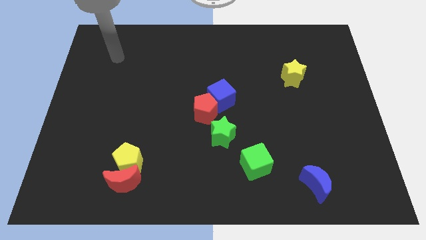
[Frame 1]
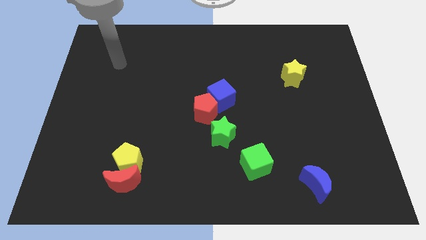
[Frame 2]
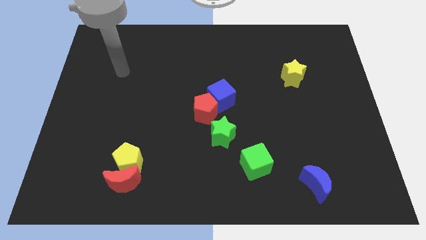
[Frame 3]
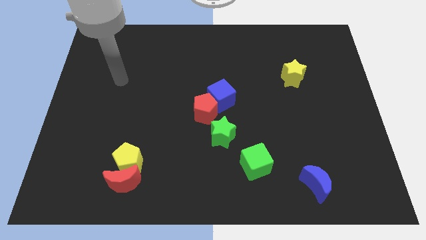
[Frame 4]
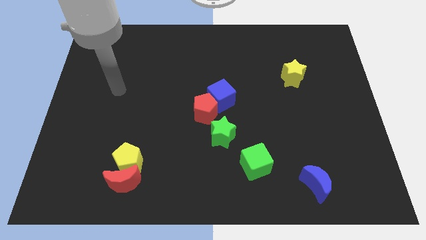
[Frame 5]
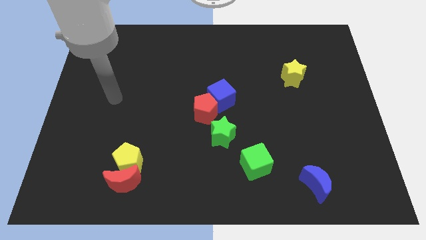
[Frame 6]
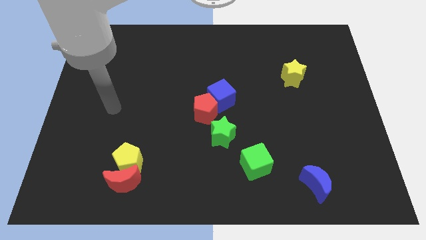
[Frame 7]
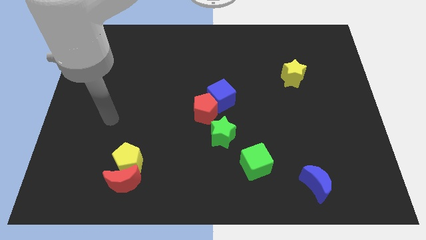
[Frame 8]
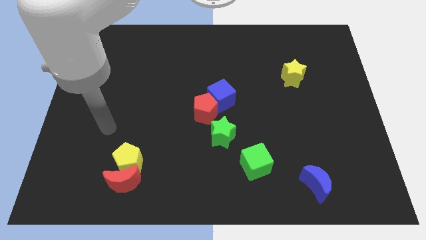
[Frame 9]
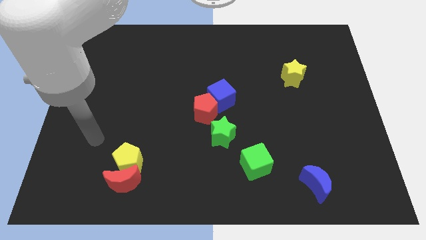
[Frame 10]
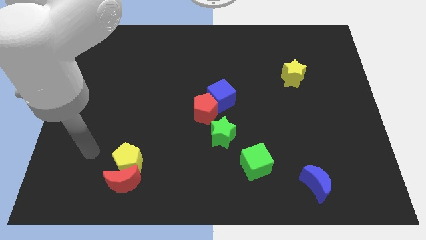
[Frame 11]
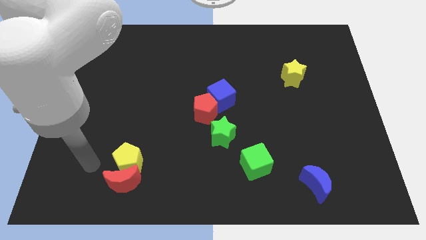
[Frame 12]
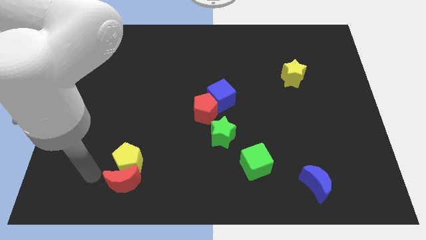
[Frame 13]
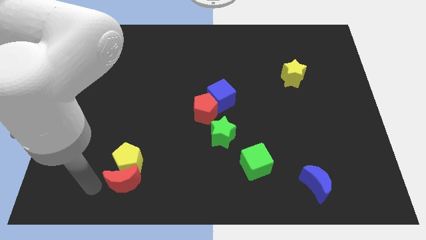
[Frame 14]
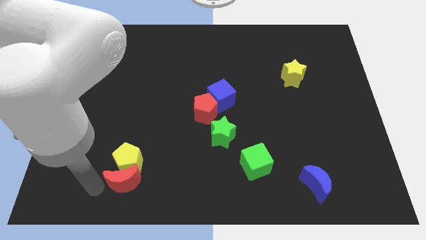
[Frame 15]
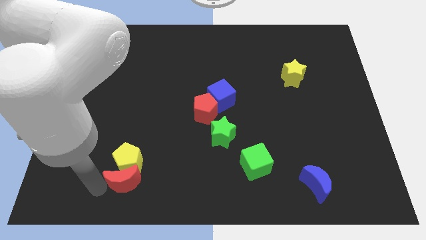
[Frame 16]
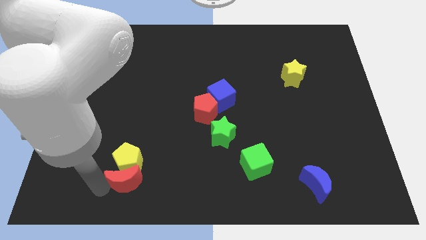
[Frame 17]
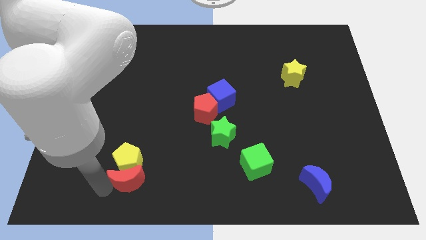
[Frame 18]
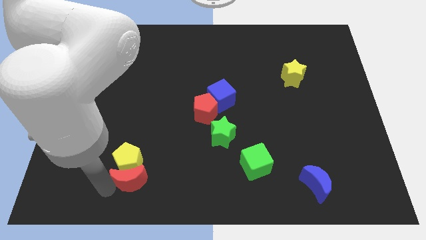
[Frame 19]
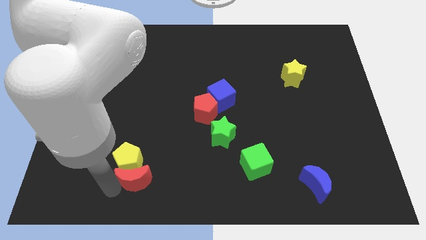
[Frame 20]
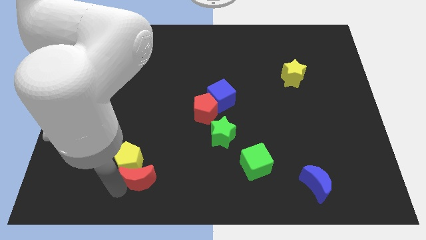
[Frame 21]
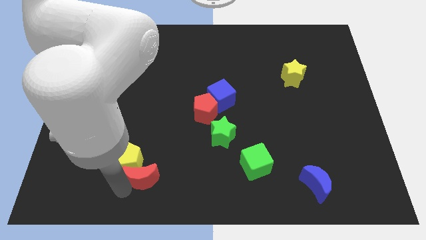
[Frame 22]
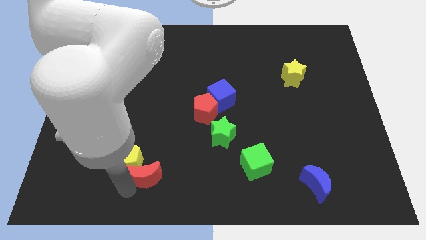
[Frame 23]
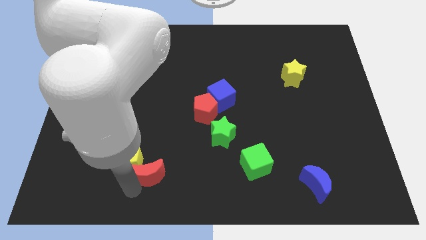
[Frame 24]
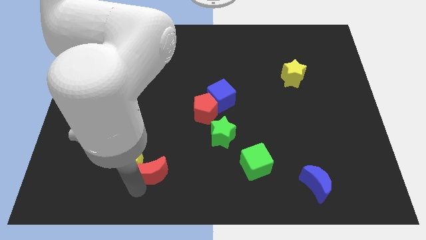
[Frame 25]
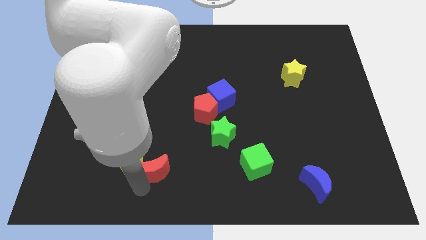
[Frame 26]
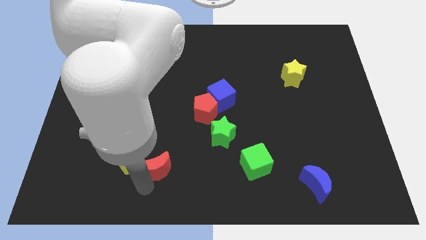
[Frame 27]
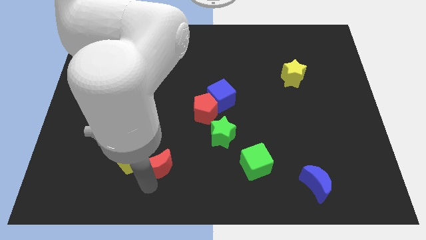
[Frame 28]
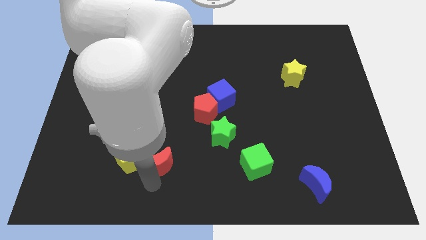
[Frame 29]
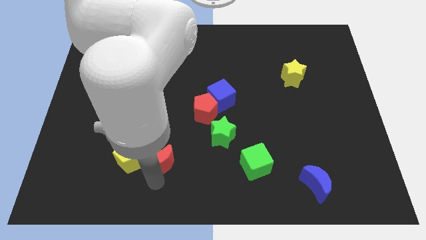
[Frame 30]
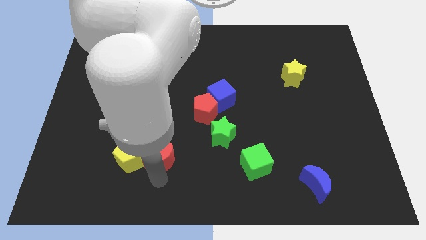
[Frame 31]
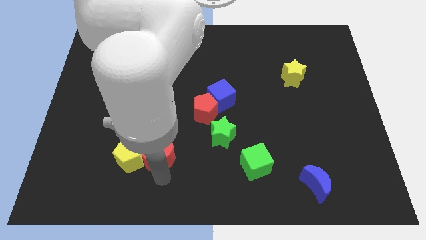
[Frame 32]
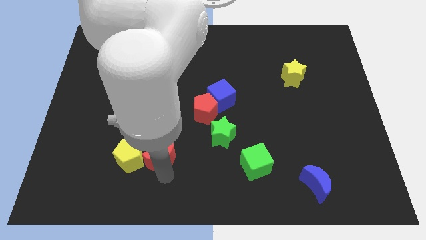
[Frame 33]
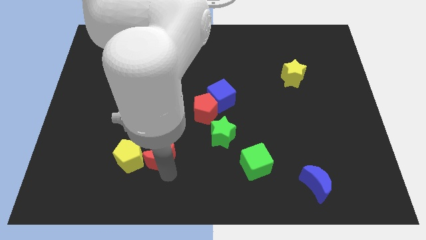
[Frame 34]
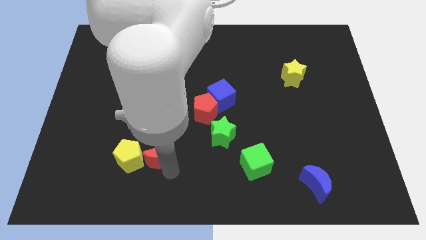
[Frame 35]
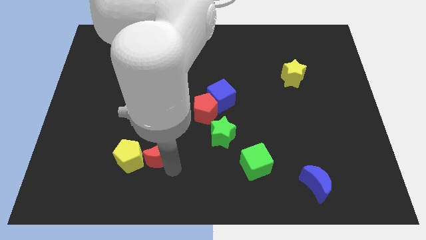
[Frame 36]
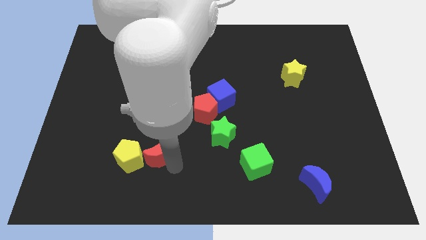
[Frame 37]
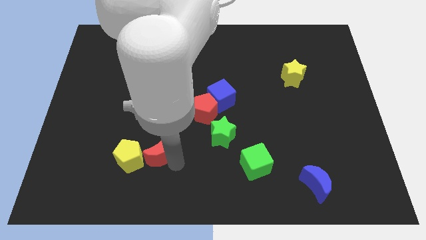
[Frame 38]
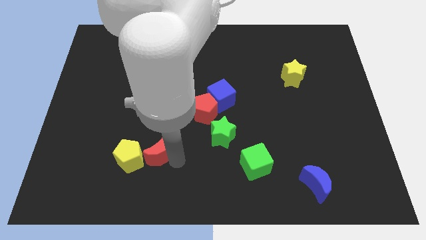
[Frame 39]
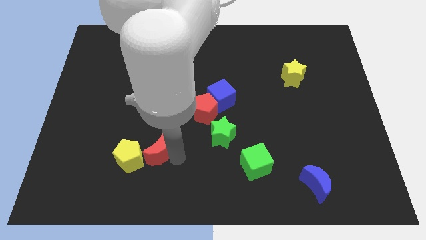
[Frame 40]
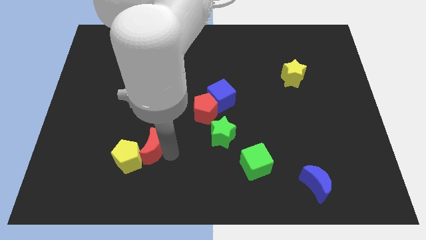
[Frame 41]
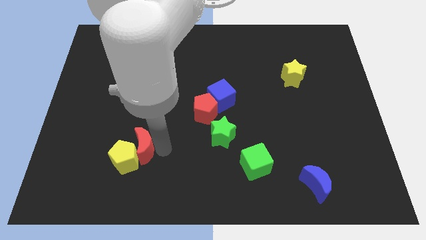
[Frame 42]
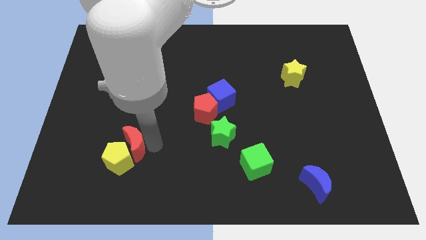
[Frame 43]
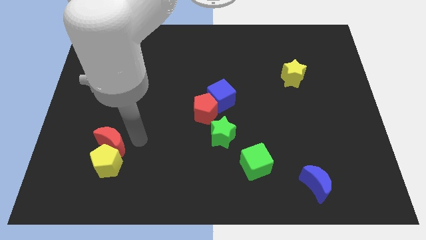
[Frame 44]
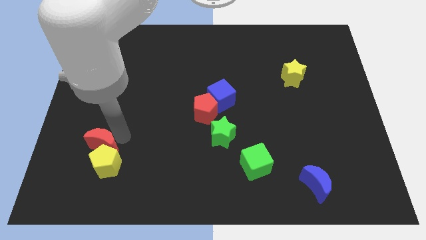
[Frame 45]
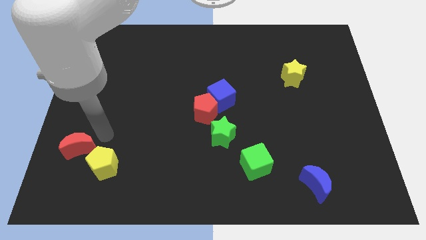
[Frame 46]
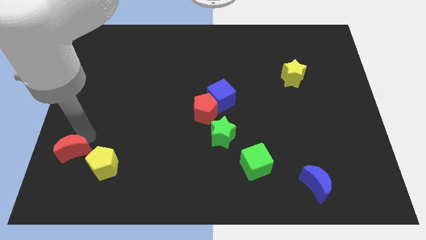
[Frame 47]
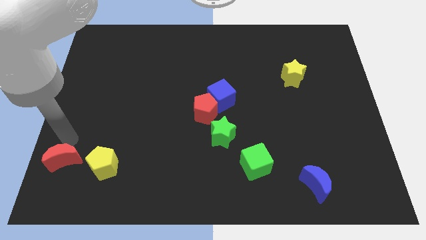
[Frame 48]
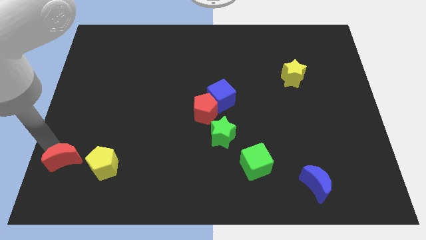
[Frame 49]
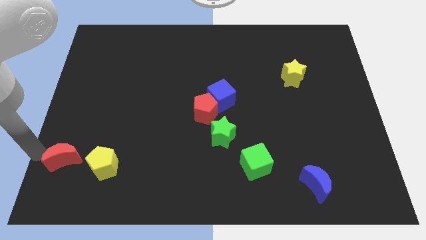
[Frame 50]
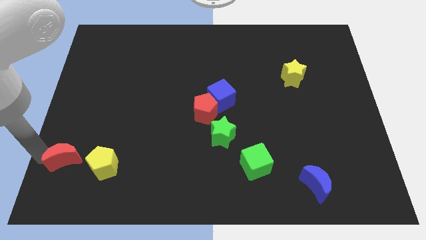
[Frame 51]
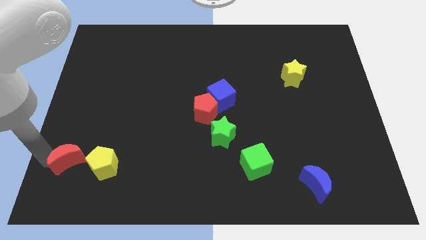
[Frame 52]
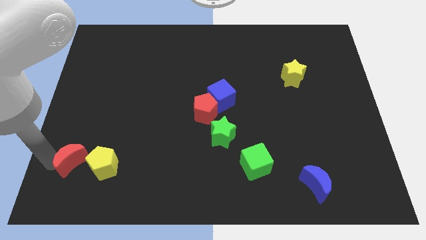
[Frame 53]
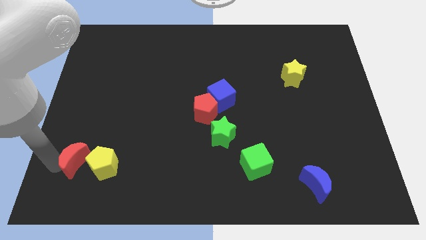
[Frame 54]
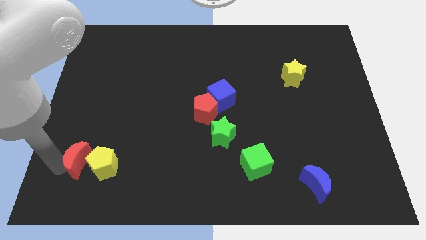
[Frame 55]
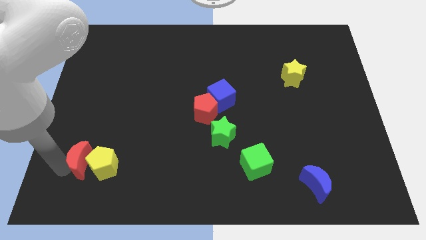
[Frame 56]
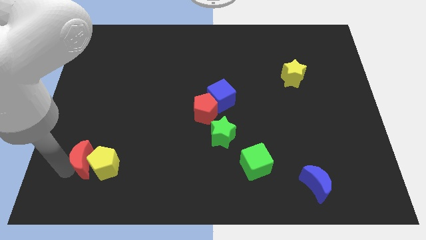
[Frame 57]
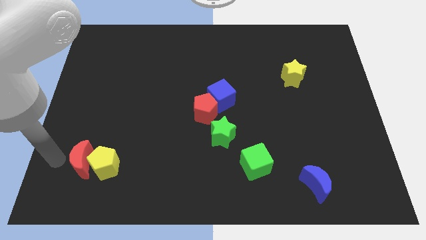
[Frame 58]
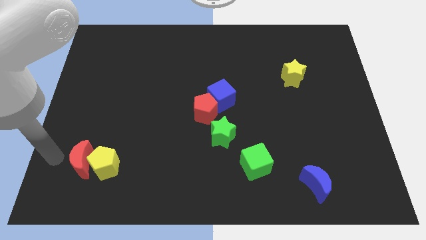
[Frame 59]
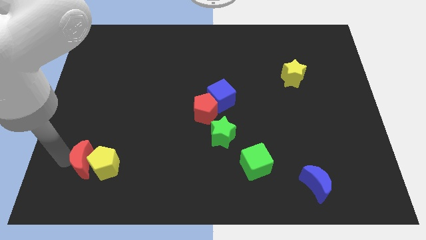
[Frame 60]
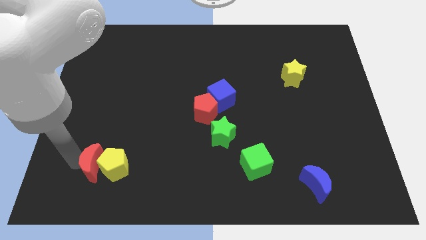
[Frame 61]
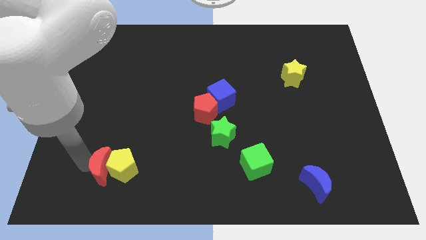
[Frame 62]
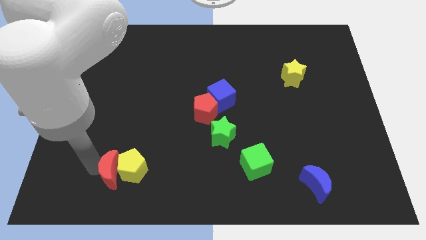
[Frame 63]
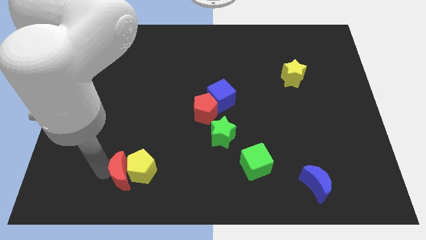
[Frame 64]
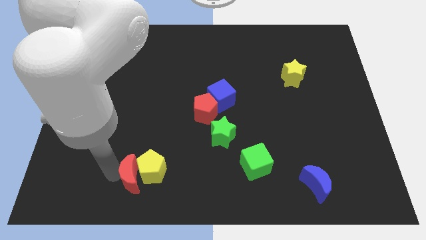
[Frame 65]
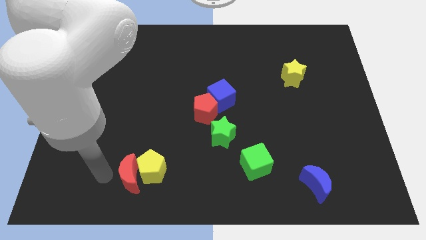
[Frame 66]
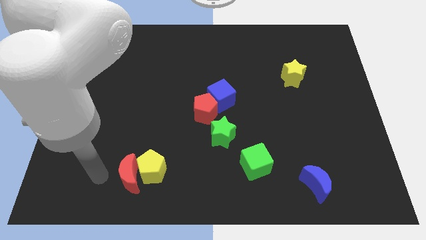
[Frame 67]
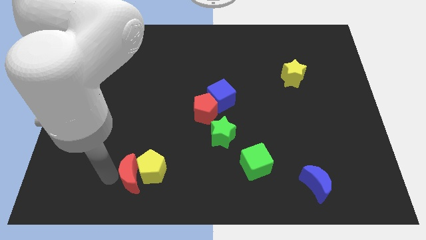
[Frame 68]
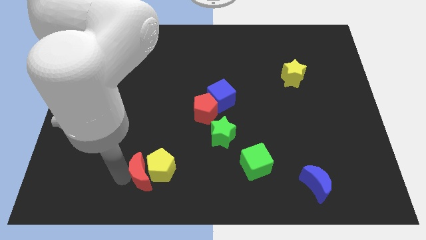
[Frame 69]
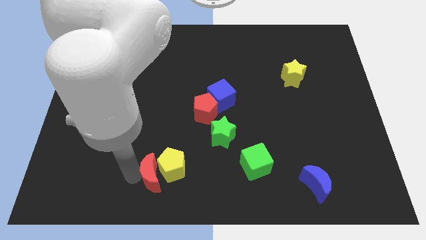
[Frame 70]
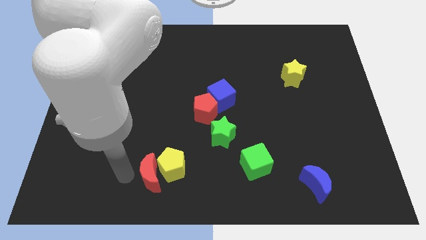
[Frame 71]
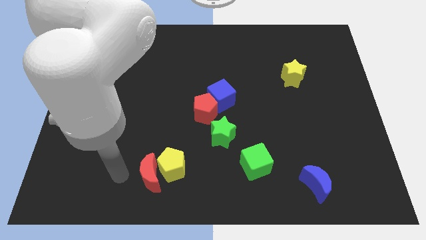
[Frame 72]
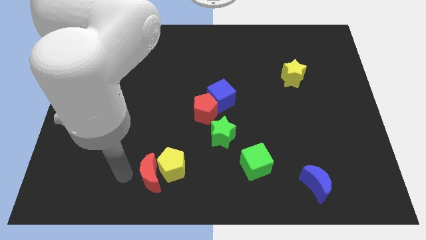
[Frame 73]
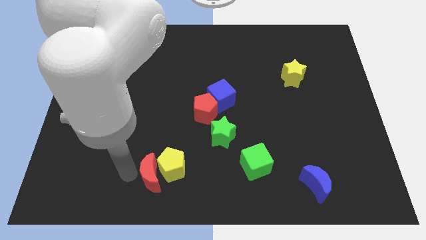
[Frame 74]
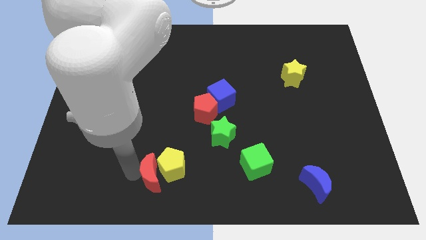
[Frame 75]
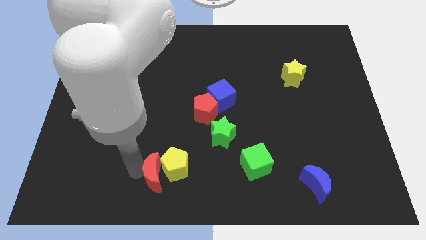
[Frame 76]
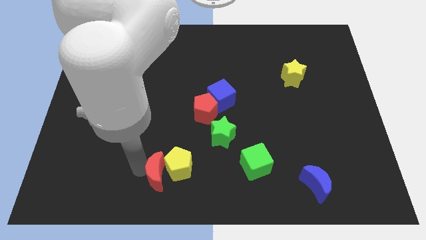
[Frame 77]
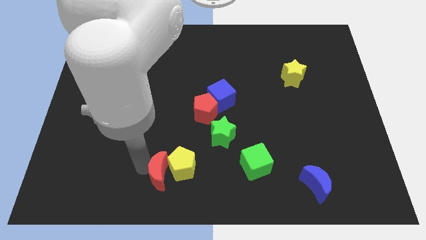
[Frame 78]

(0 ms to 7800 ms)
move the red moon a little right
